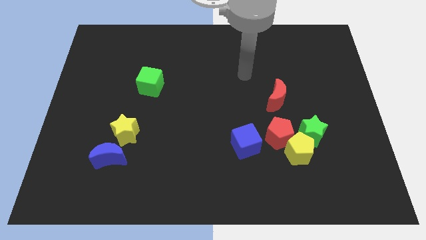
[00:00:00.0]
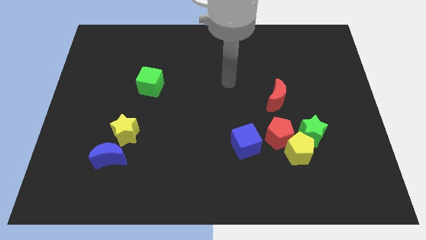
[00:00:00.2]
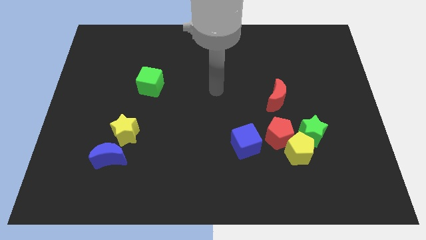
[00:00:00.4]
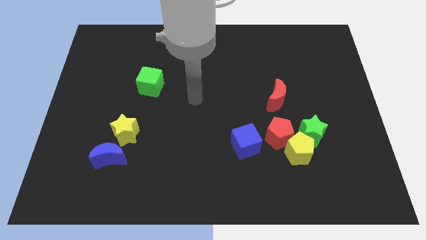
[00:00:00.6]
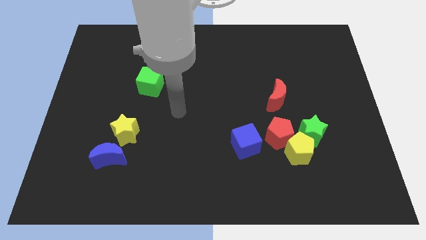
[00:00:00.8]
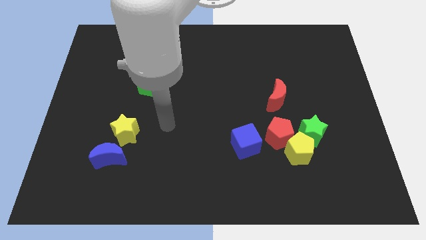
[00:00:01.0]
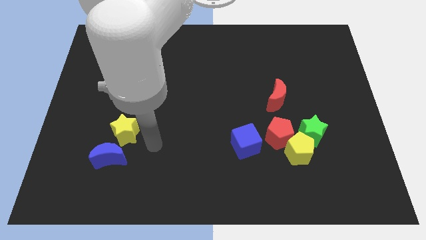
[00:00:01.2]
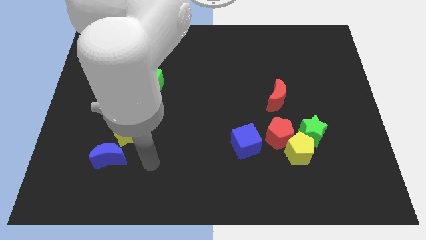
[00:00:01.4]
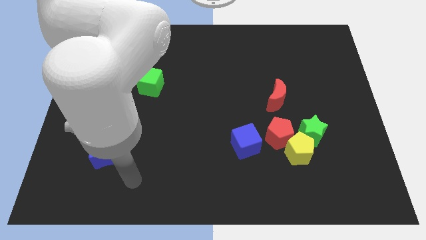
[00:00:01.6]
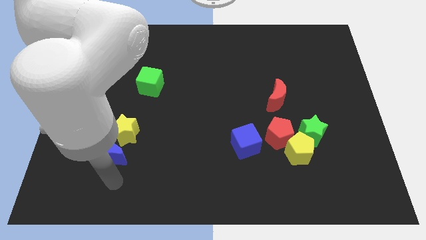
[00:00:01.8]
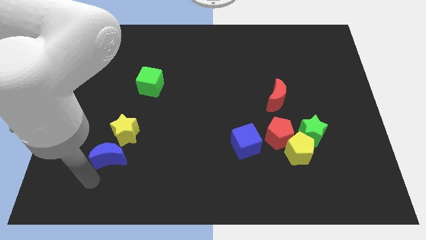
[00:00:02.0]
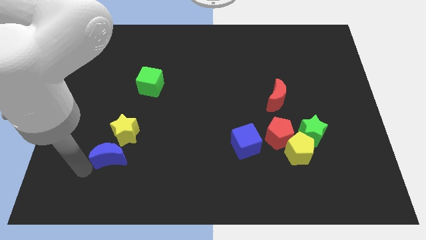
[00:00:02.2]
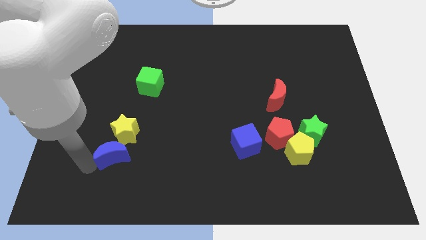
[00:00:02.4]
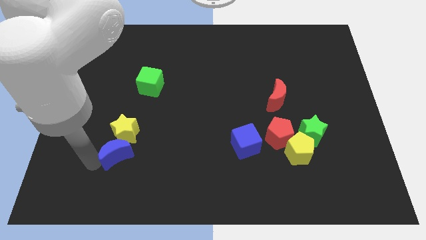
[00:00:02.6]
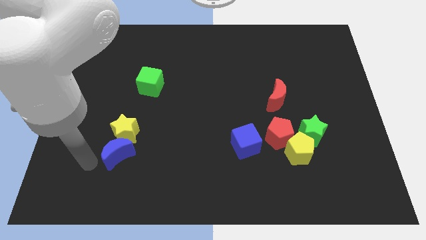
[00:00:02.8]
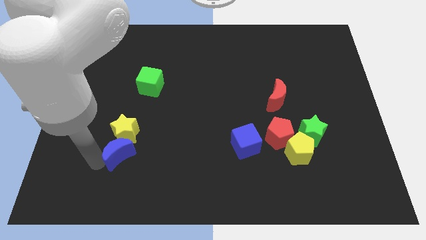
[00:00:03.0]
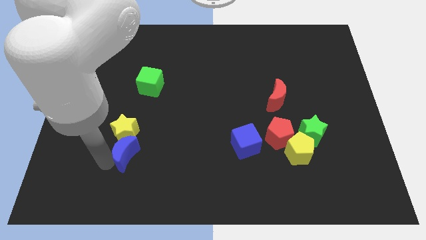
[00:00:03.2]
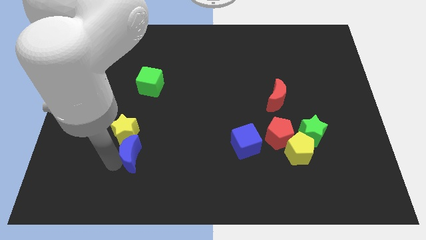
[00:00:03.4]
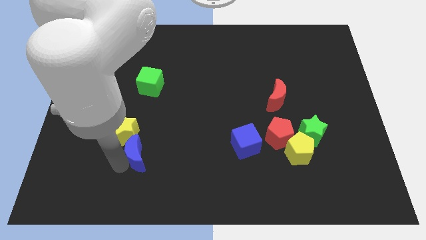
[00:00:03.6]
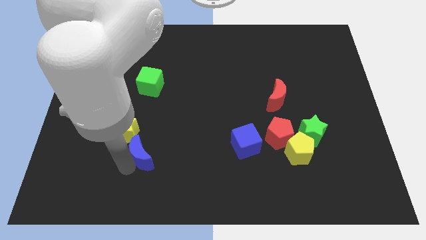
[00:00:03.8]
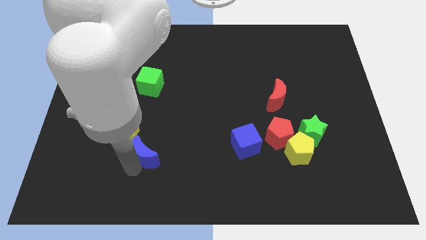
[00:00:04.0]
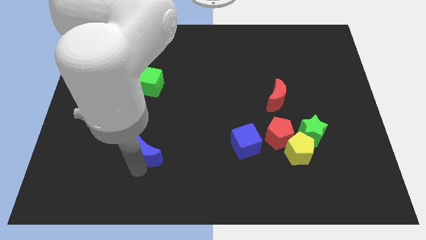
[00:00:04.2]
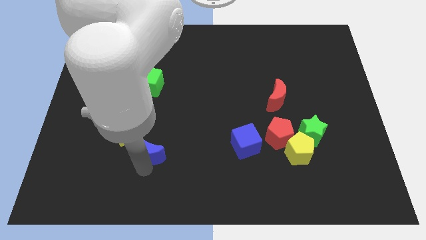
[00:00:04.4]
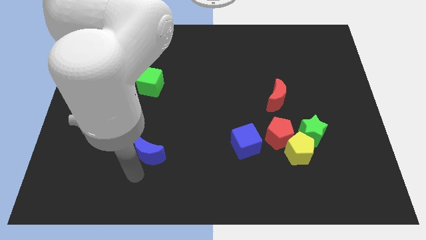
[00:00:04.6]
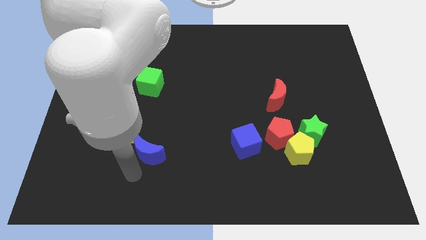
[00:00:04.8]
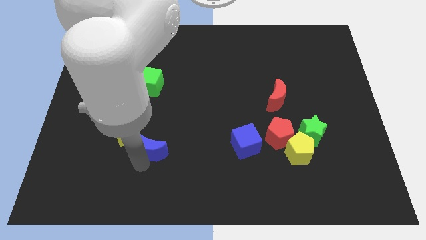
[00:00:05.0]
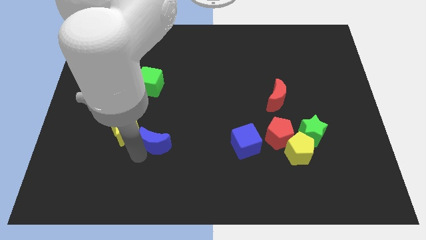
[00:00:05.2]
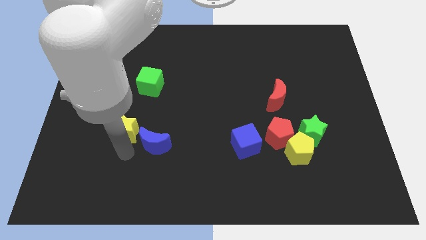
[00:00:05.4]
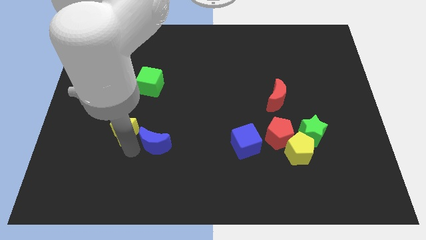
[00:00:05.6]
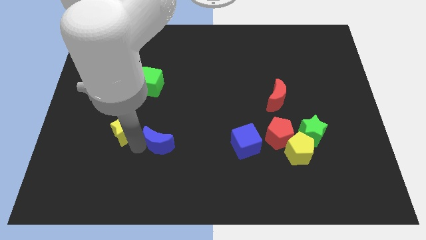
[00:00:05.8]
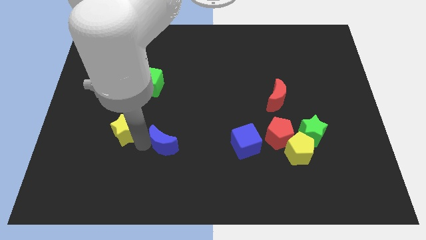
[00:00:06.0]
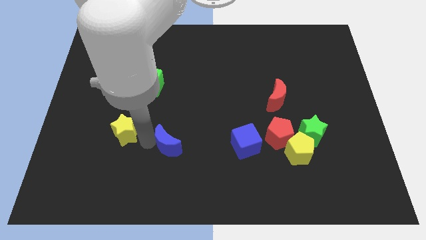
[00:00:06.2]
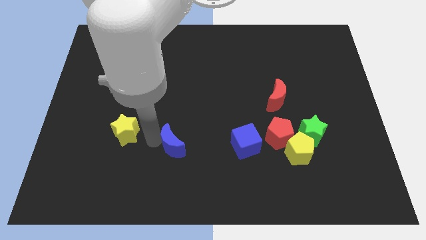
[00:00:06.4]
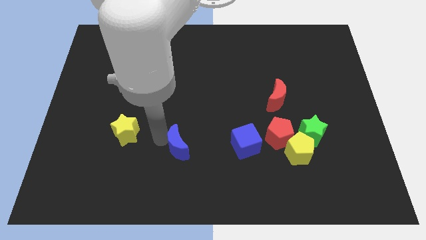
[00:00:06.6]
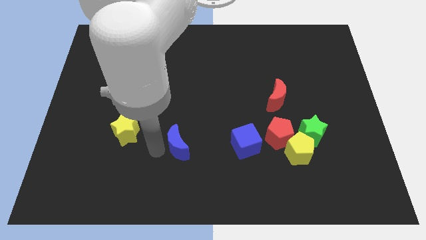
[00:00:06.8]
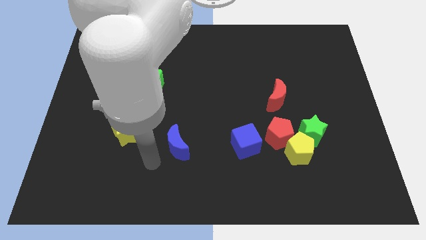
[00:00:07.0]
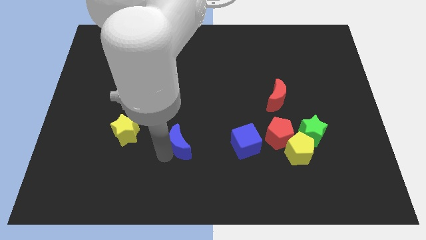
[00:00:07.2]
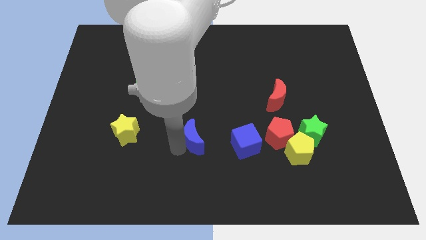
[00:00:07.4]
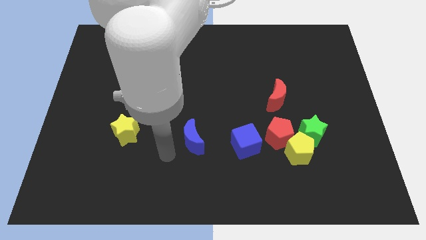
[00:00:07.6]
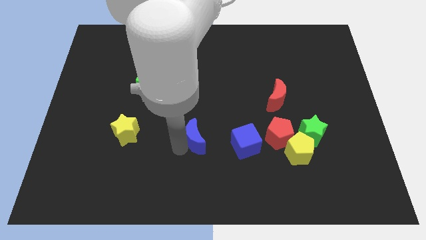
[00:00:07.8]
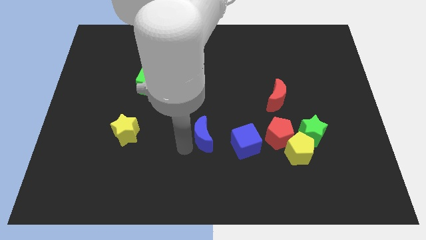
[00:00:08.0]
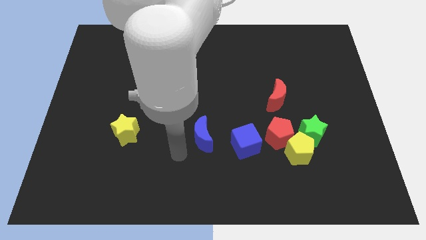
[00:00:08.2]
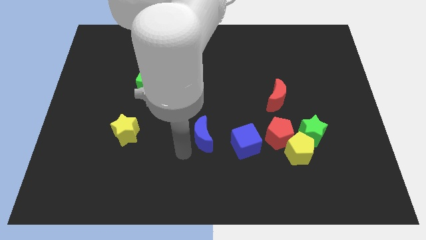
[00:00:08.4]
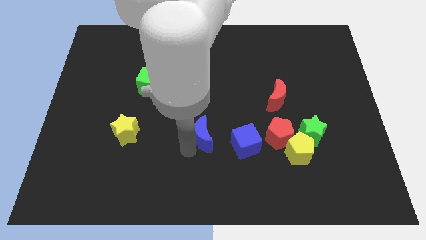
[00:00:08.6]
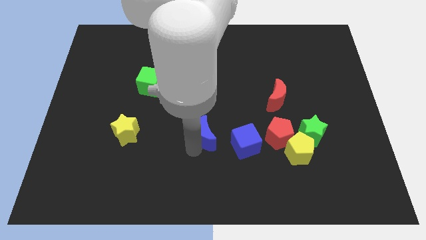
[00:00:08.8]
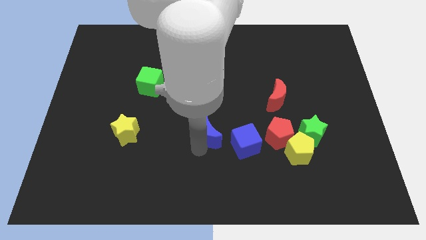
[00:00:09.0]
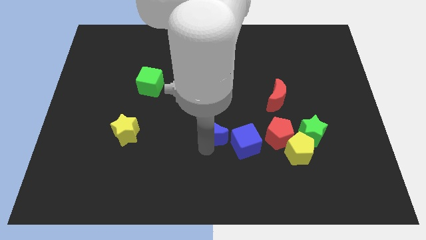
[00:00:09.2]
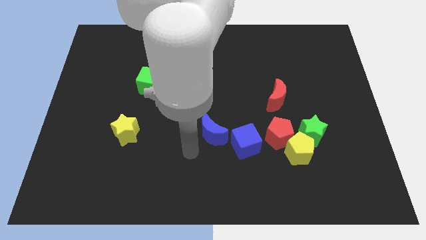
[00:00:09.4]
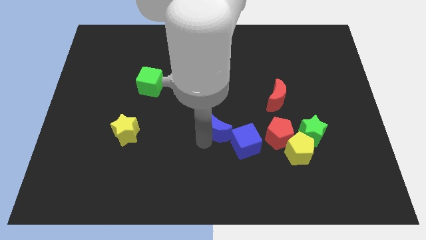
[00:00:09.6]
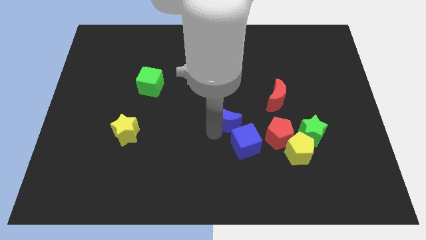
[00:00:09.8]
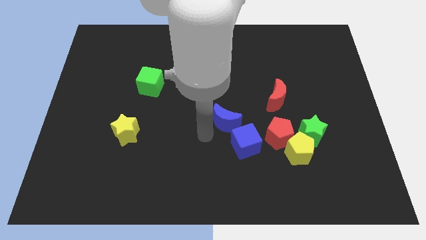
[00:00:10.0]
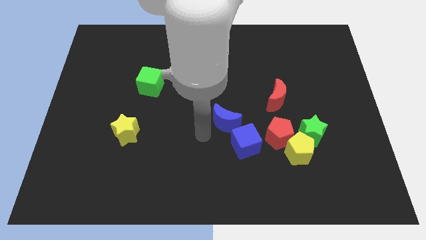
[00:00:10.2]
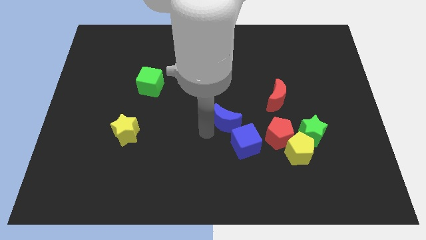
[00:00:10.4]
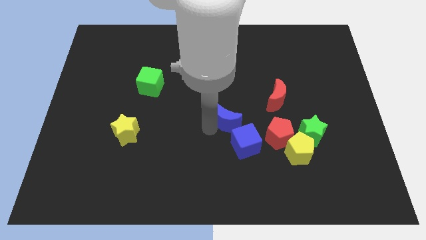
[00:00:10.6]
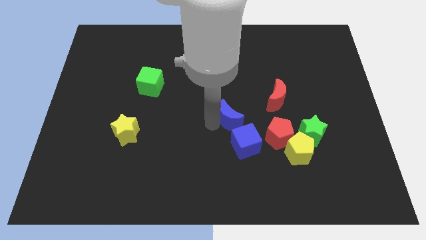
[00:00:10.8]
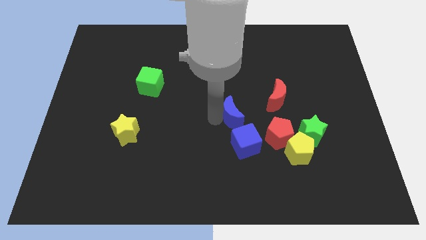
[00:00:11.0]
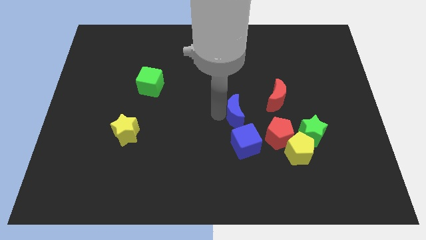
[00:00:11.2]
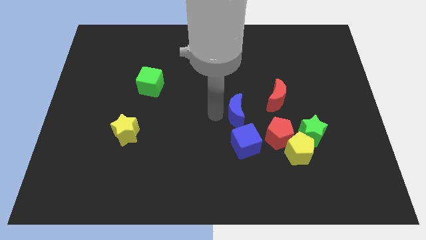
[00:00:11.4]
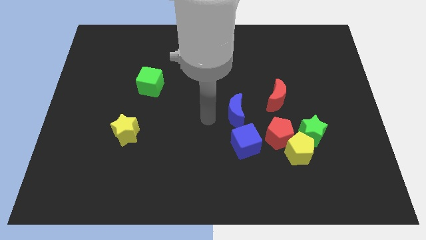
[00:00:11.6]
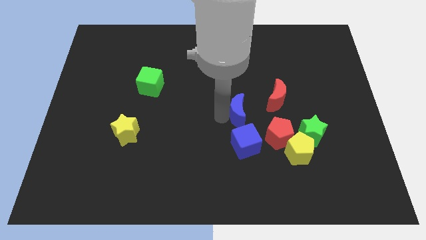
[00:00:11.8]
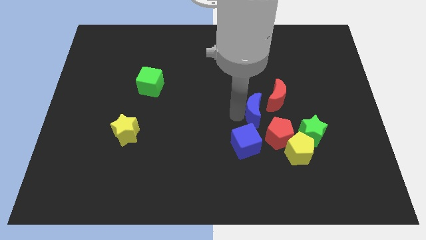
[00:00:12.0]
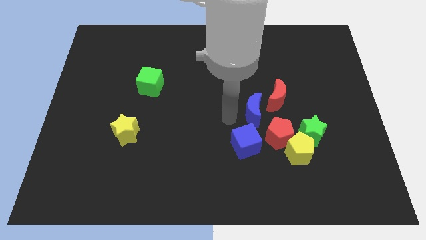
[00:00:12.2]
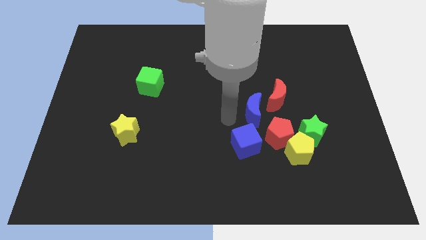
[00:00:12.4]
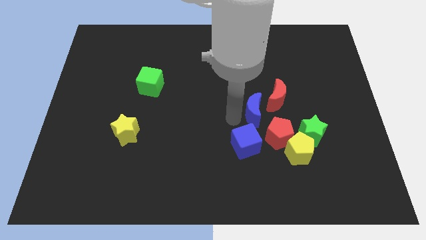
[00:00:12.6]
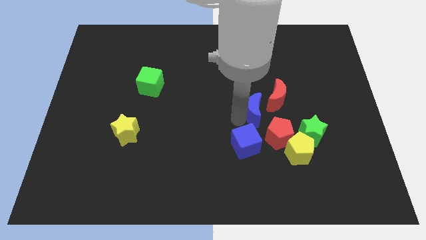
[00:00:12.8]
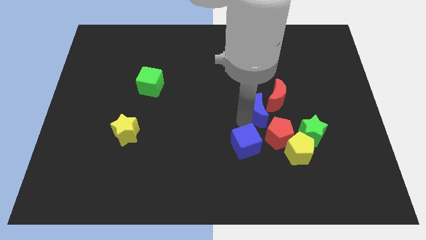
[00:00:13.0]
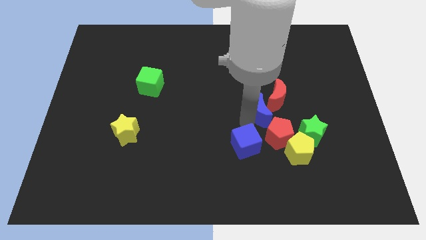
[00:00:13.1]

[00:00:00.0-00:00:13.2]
move the blue moon next to the red moon

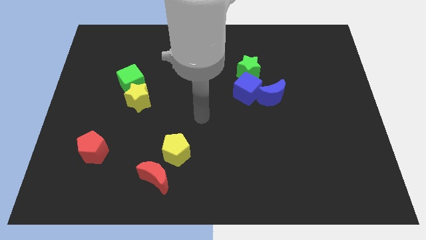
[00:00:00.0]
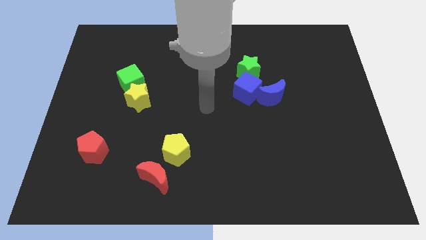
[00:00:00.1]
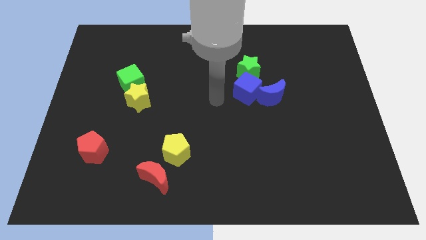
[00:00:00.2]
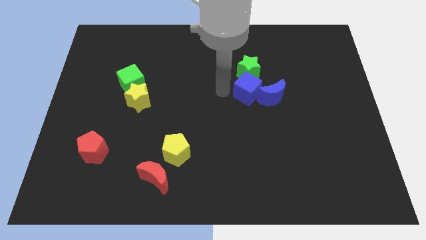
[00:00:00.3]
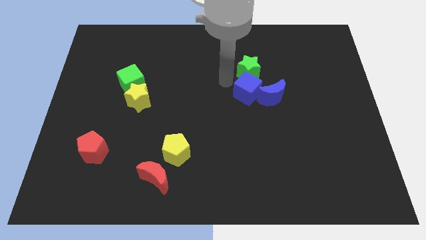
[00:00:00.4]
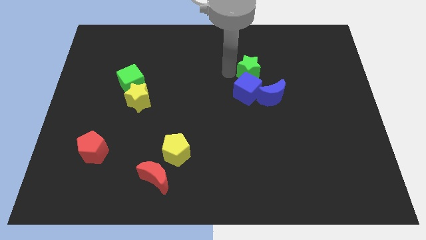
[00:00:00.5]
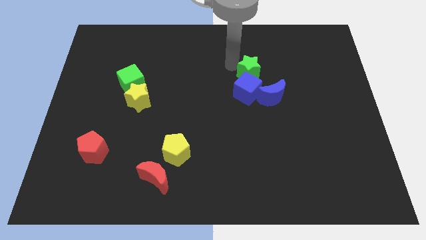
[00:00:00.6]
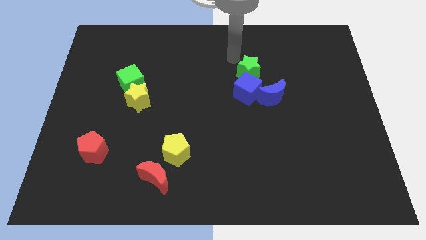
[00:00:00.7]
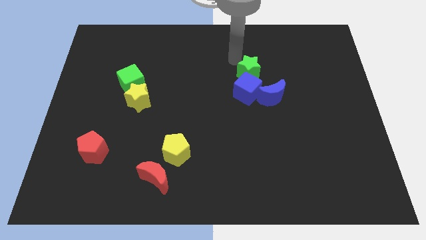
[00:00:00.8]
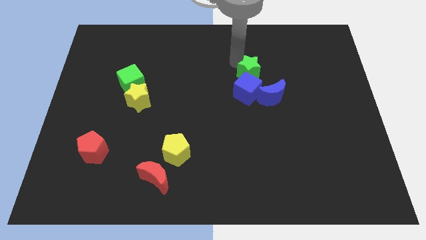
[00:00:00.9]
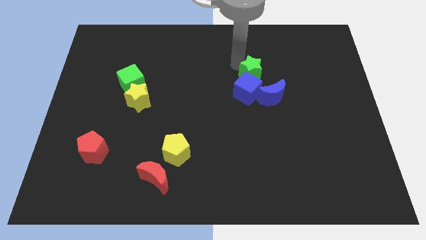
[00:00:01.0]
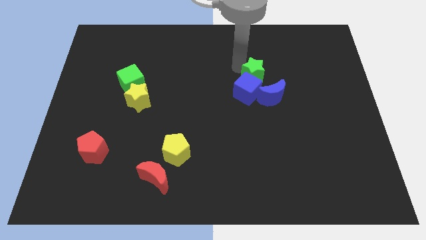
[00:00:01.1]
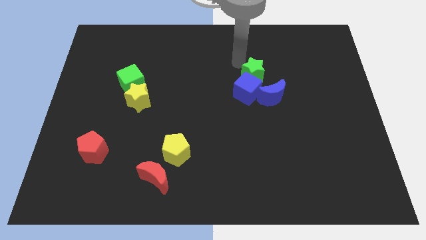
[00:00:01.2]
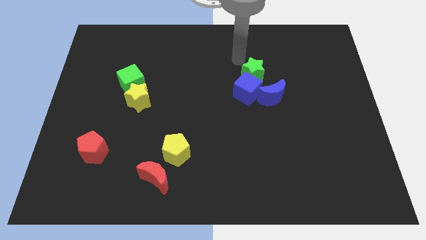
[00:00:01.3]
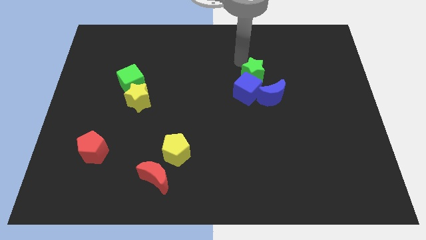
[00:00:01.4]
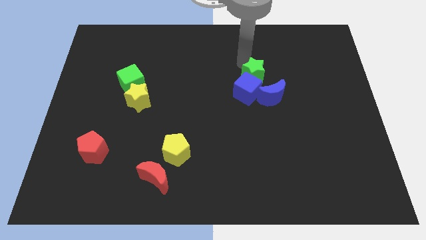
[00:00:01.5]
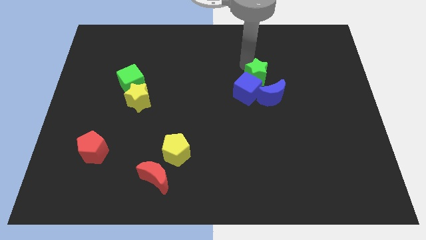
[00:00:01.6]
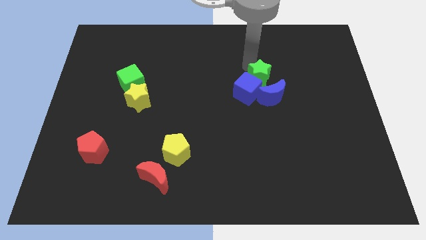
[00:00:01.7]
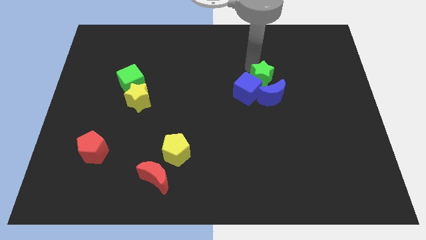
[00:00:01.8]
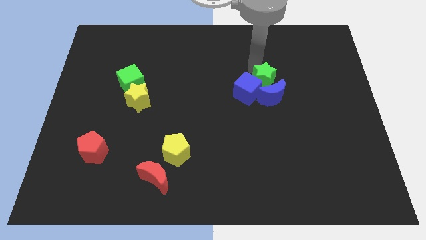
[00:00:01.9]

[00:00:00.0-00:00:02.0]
put the green star close to the blue moon
